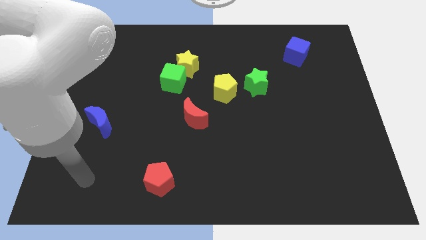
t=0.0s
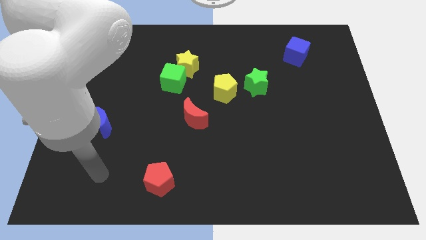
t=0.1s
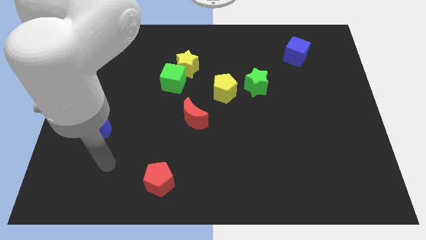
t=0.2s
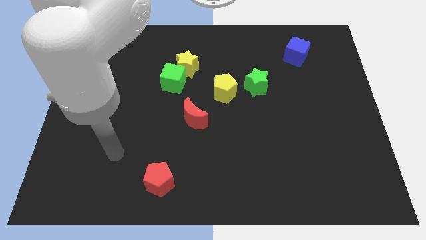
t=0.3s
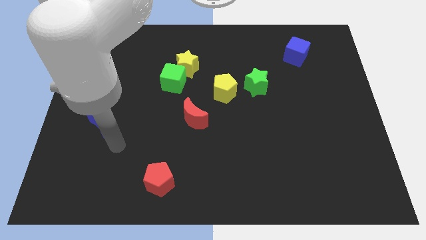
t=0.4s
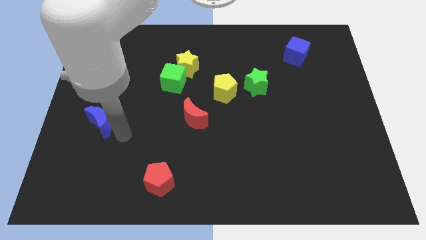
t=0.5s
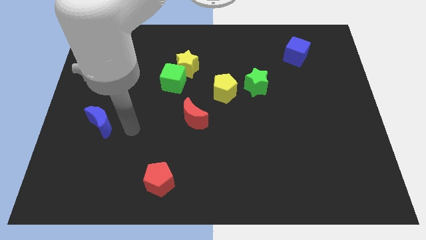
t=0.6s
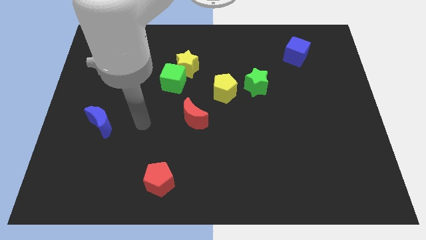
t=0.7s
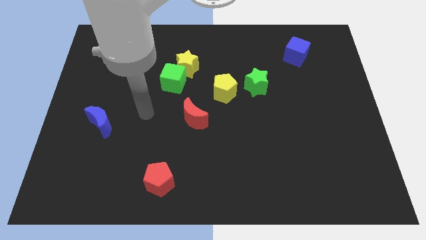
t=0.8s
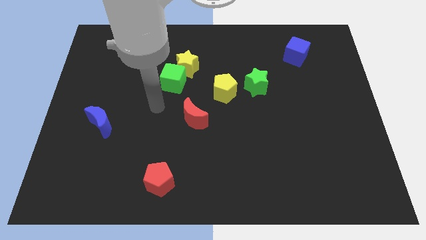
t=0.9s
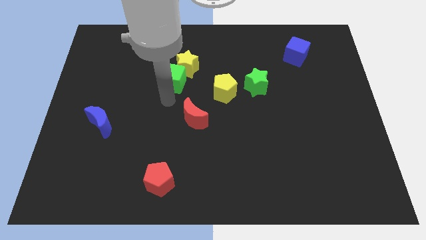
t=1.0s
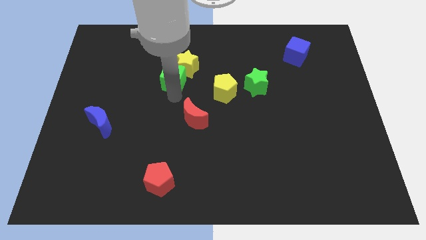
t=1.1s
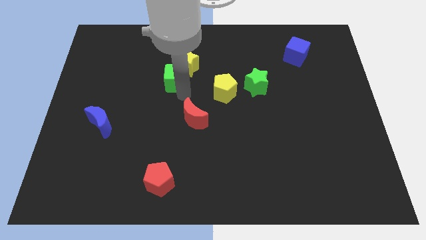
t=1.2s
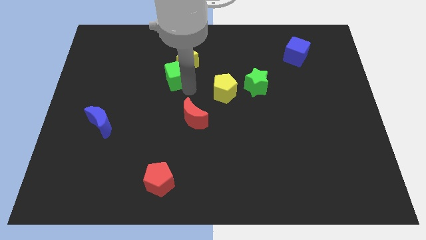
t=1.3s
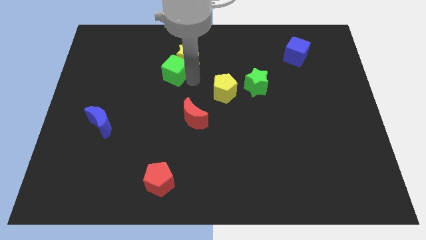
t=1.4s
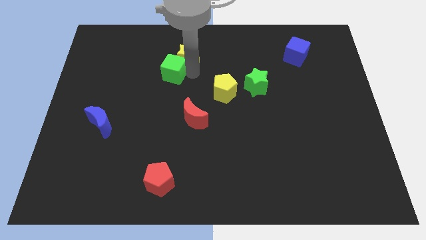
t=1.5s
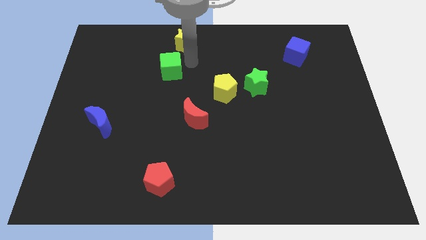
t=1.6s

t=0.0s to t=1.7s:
move the green cube away from the yellow star

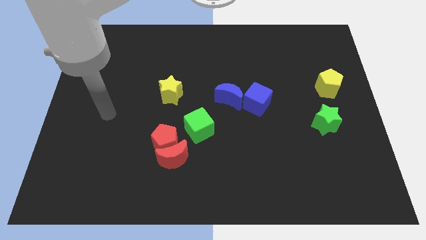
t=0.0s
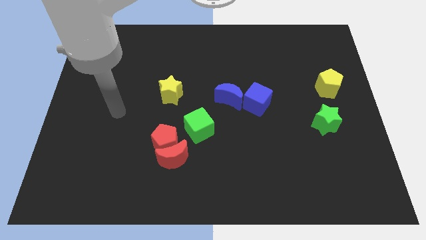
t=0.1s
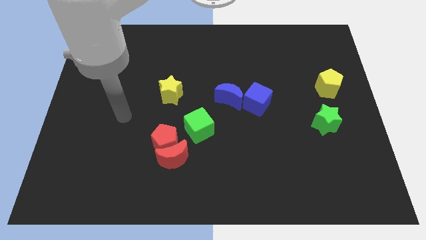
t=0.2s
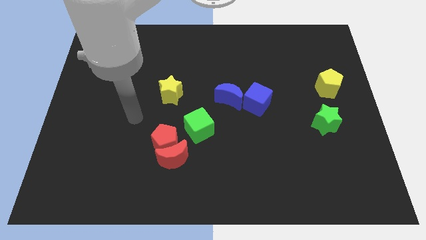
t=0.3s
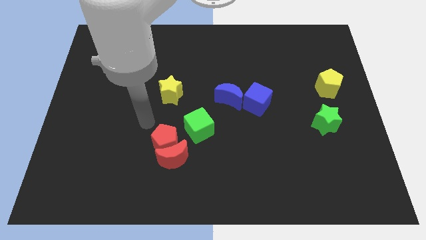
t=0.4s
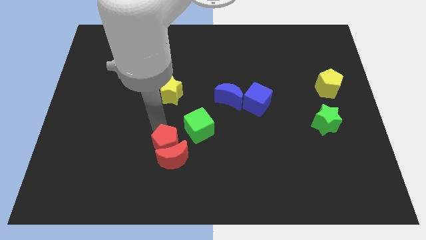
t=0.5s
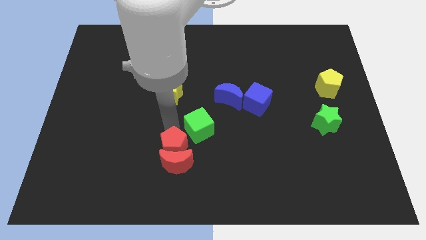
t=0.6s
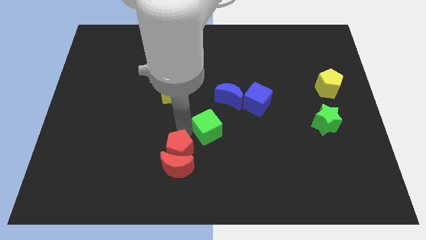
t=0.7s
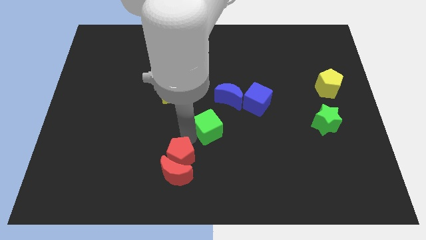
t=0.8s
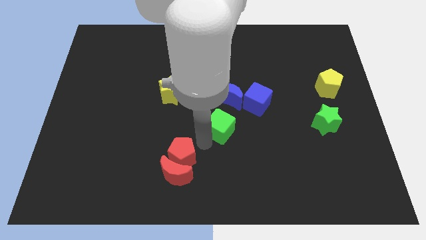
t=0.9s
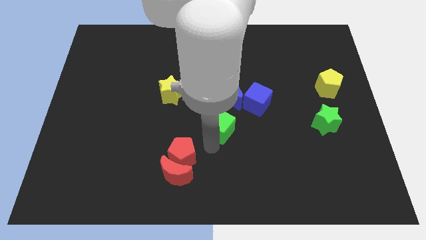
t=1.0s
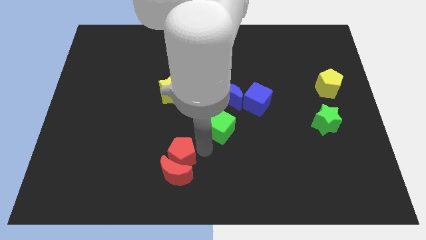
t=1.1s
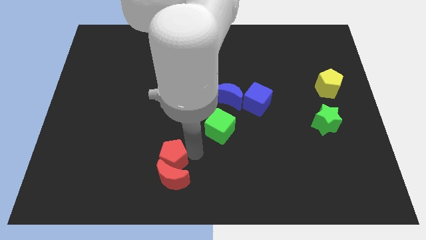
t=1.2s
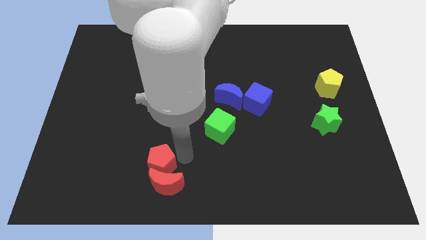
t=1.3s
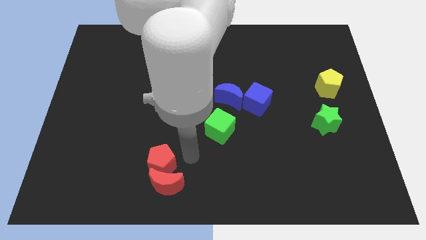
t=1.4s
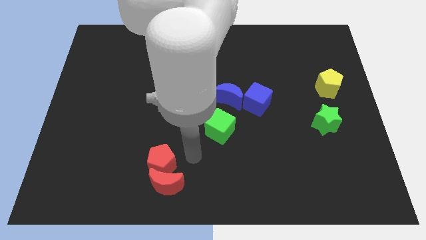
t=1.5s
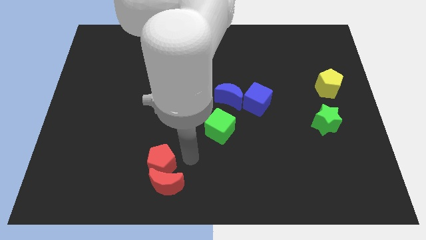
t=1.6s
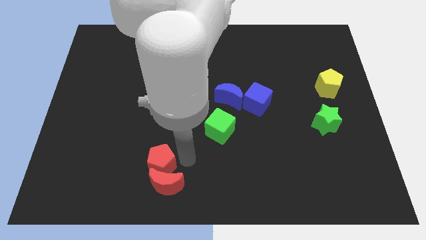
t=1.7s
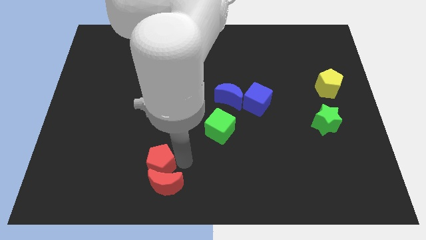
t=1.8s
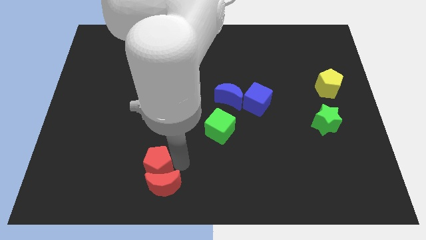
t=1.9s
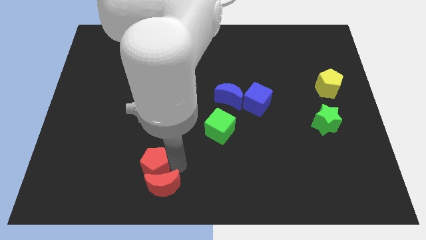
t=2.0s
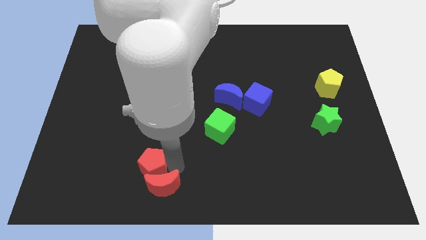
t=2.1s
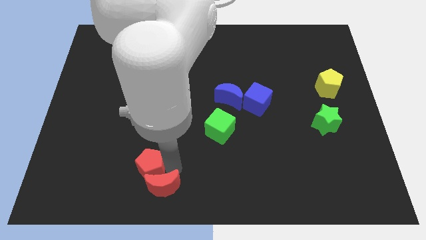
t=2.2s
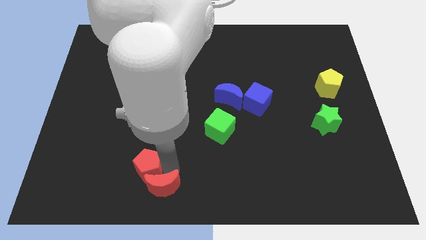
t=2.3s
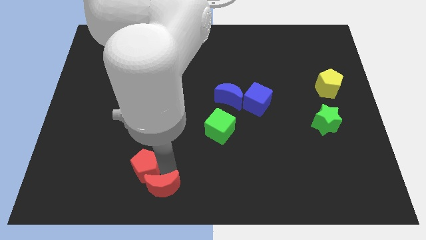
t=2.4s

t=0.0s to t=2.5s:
move the red pentagon away from the red moon and green cube

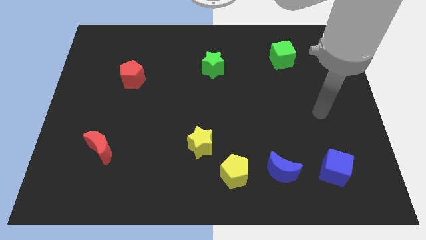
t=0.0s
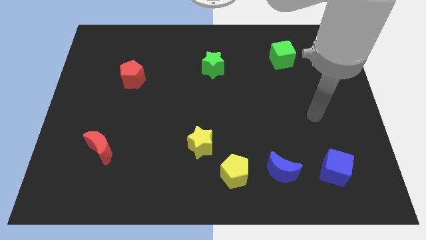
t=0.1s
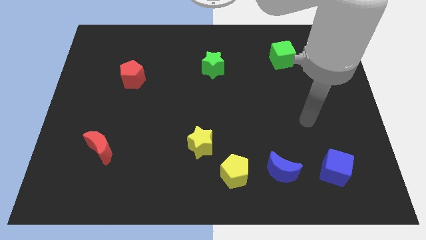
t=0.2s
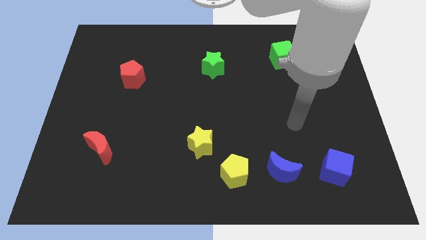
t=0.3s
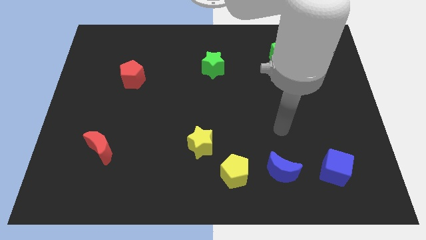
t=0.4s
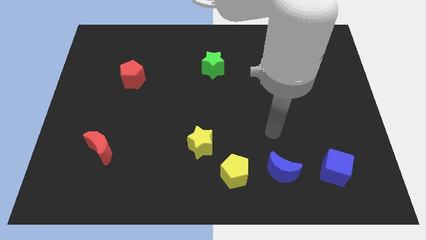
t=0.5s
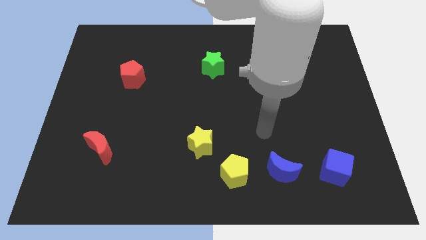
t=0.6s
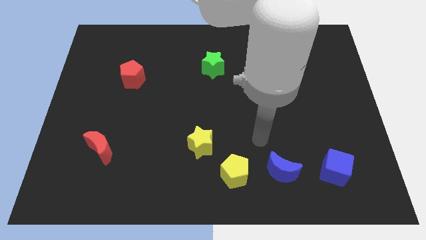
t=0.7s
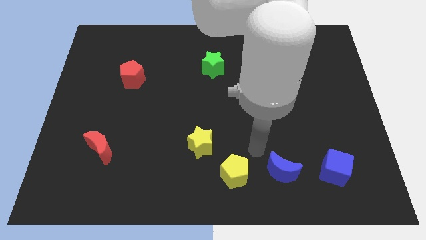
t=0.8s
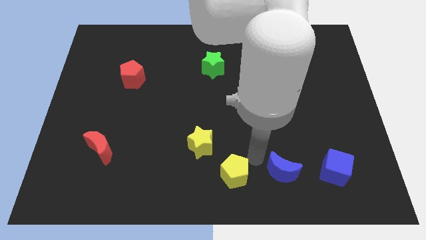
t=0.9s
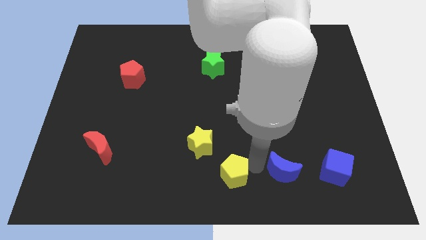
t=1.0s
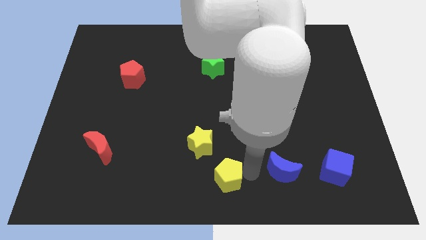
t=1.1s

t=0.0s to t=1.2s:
move the blue moon away from the yellow pentagon

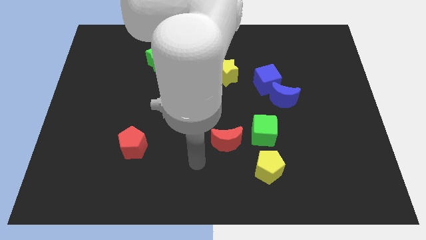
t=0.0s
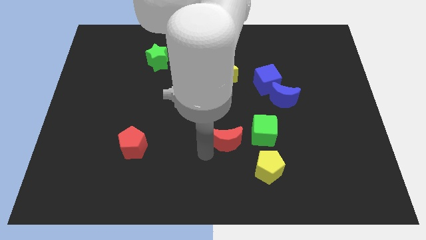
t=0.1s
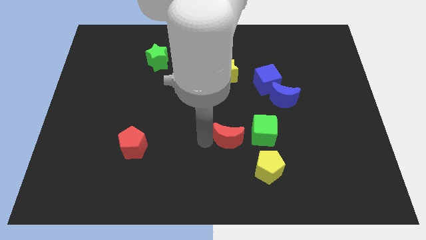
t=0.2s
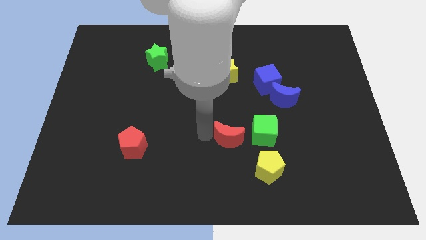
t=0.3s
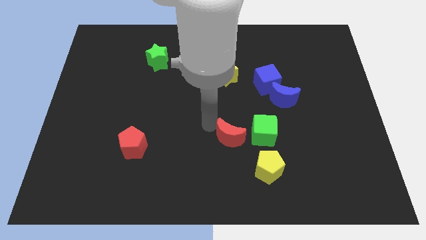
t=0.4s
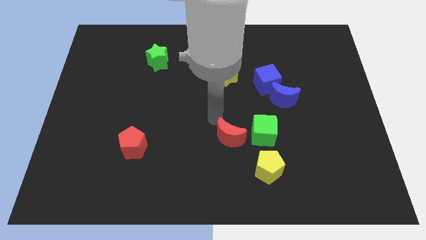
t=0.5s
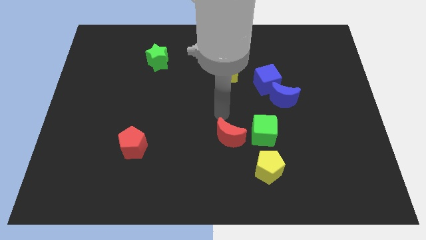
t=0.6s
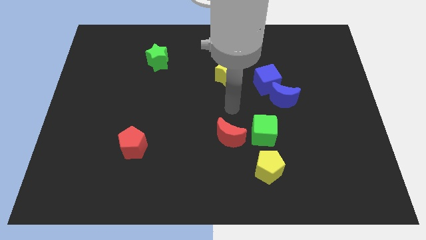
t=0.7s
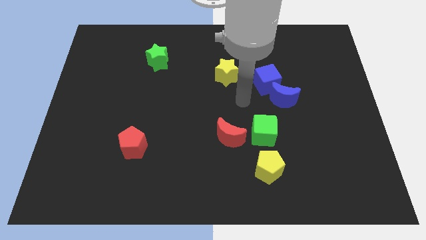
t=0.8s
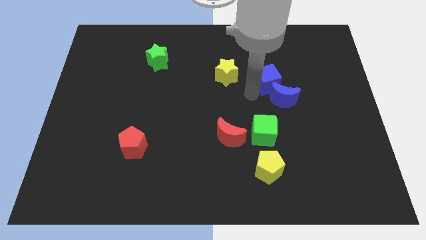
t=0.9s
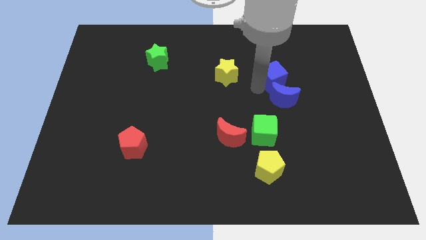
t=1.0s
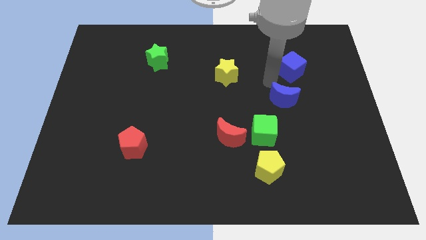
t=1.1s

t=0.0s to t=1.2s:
move the blue moon away from the blue cube

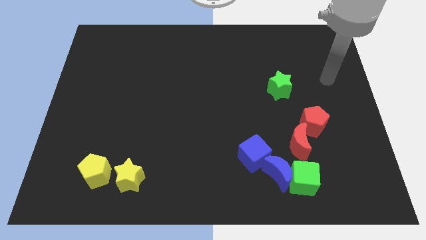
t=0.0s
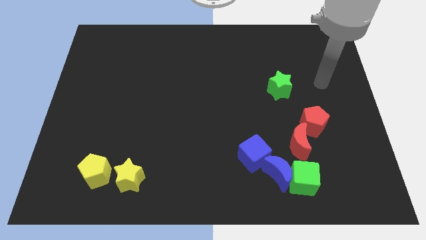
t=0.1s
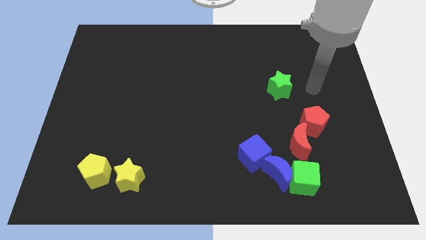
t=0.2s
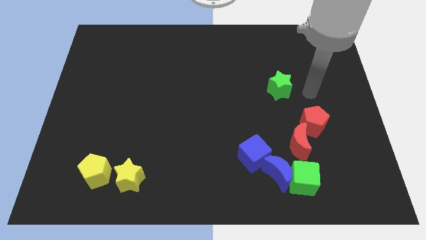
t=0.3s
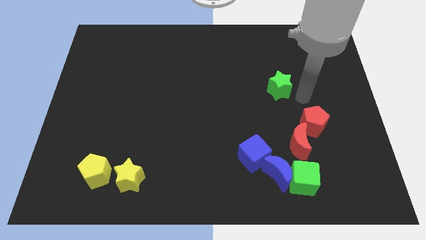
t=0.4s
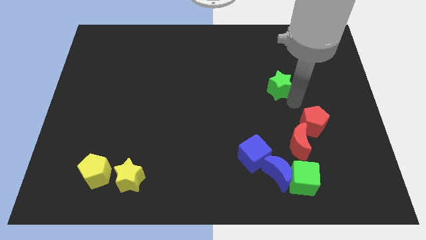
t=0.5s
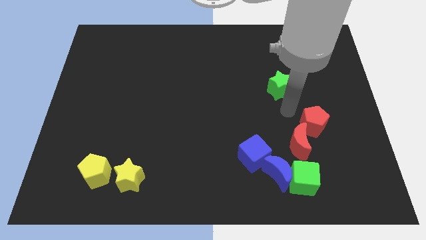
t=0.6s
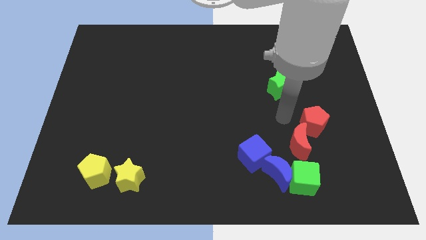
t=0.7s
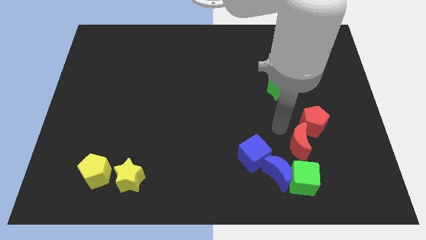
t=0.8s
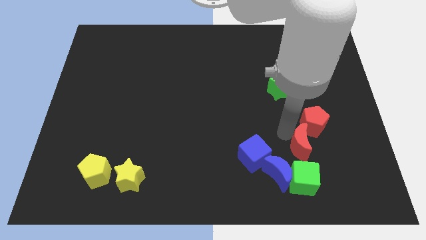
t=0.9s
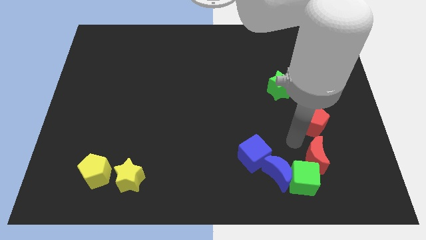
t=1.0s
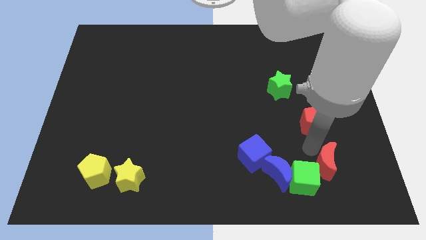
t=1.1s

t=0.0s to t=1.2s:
move the red pentagon away from the red moon

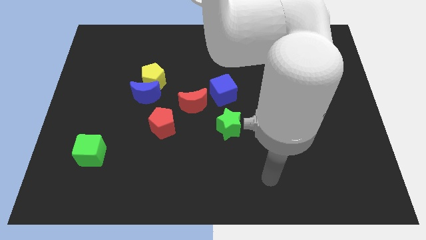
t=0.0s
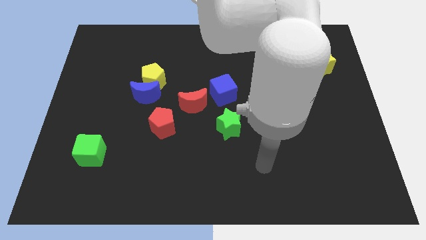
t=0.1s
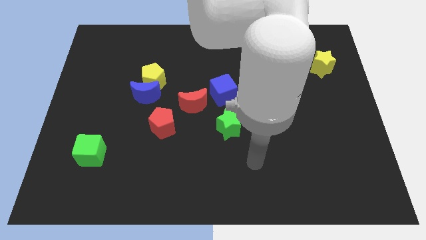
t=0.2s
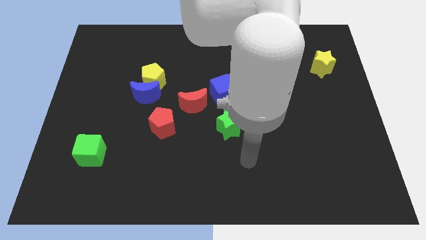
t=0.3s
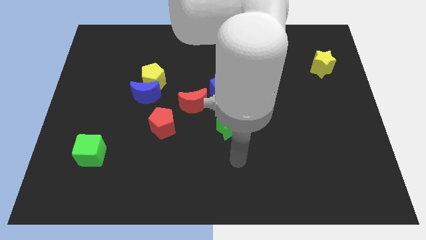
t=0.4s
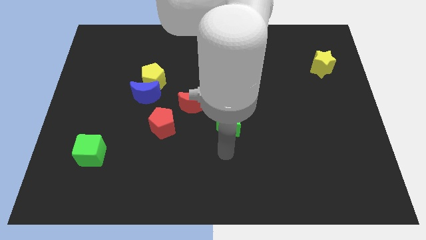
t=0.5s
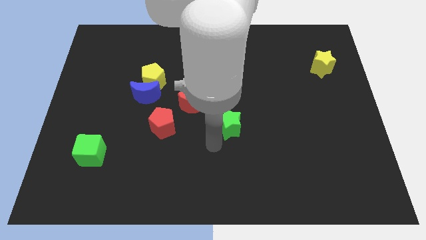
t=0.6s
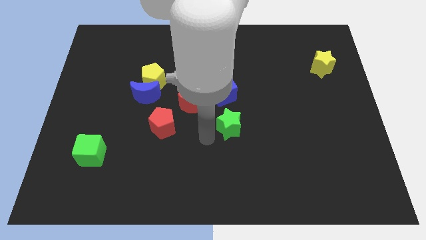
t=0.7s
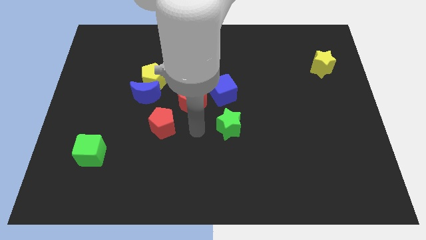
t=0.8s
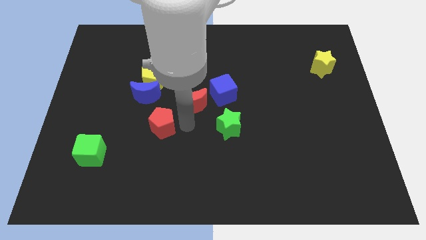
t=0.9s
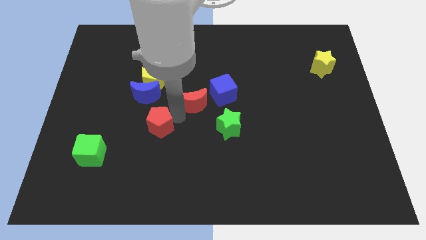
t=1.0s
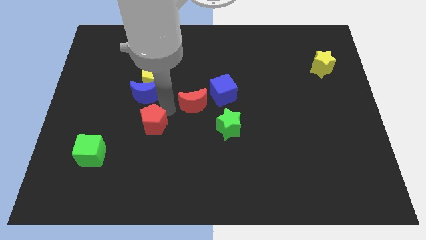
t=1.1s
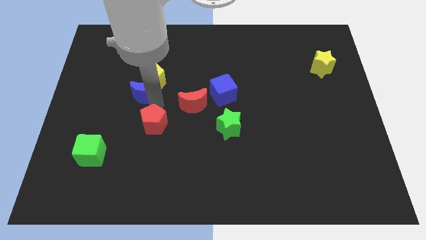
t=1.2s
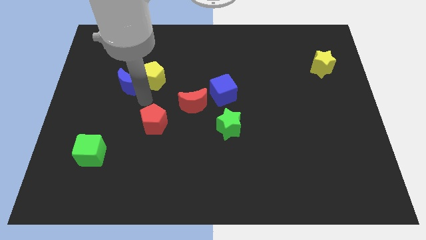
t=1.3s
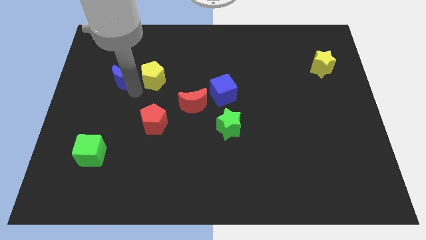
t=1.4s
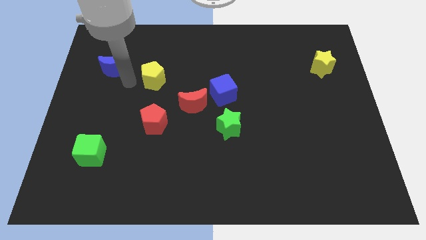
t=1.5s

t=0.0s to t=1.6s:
move the yellow pentagon away from the blue moon
